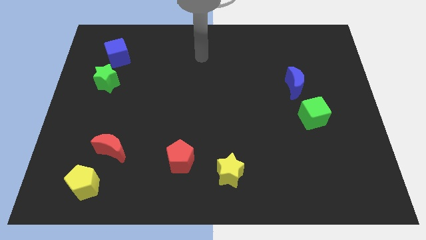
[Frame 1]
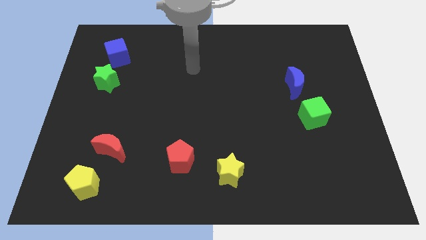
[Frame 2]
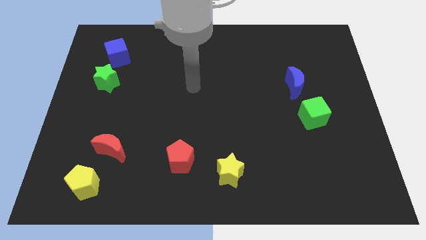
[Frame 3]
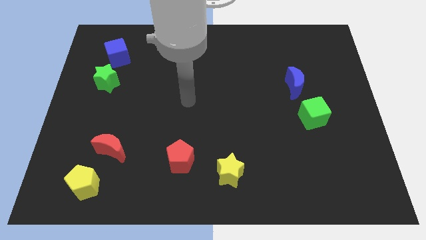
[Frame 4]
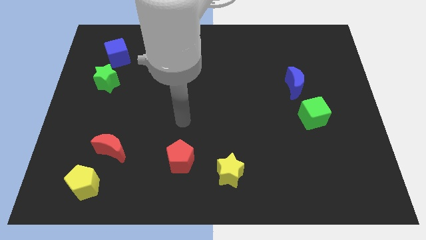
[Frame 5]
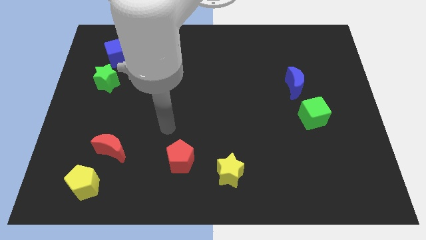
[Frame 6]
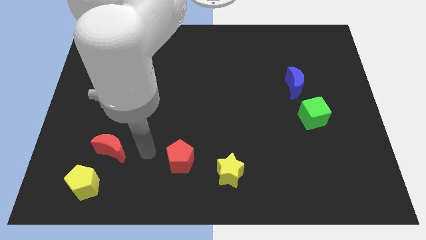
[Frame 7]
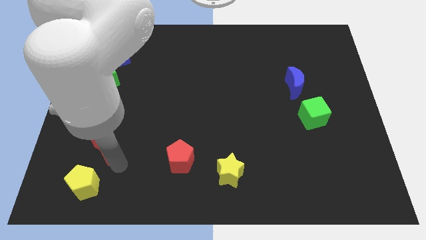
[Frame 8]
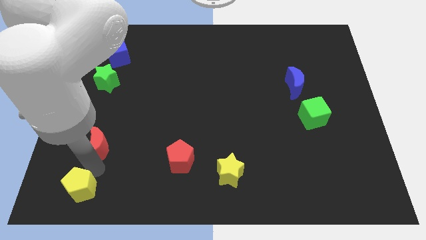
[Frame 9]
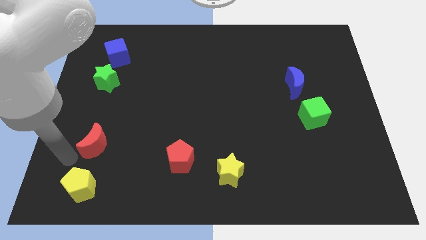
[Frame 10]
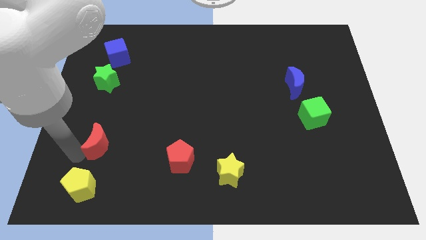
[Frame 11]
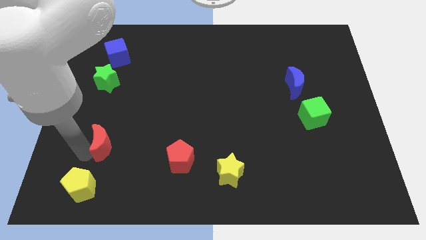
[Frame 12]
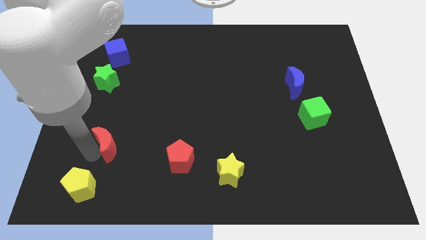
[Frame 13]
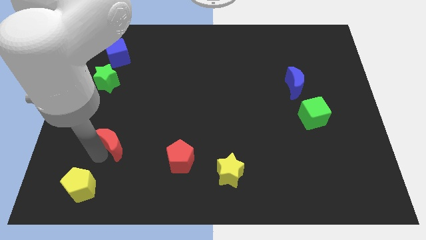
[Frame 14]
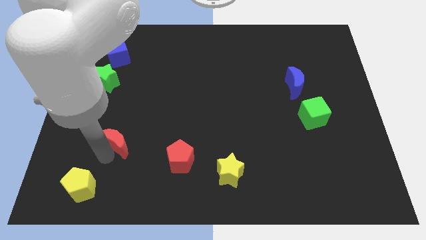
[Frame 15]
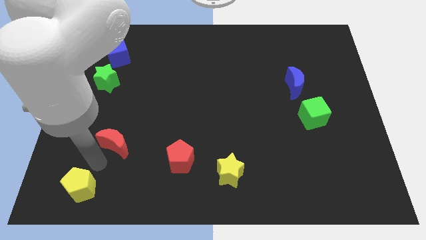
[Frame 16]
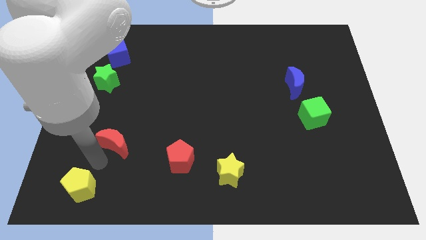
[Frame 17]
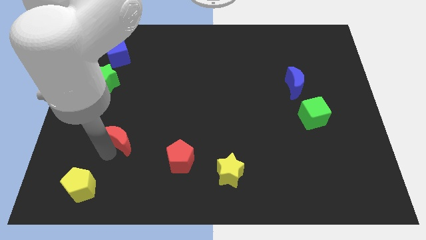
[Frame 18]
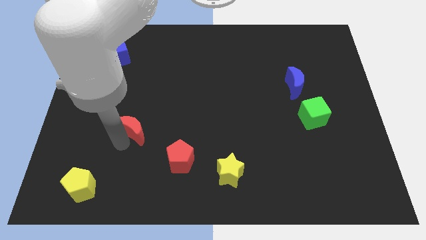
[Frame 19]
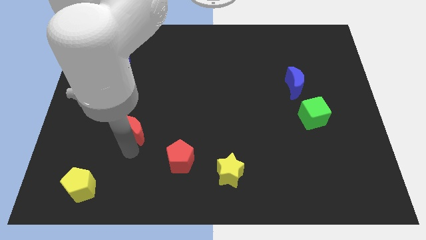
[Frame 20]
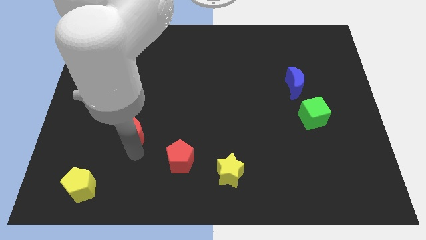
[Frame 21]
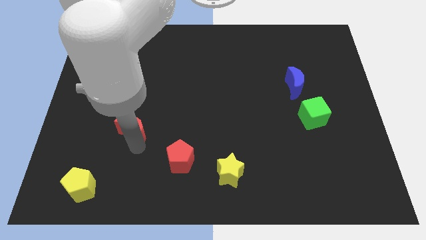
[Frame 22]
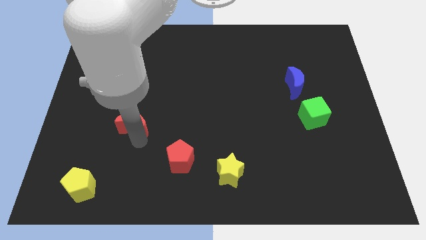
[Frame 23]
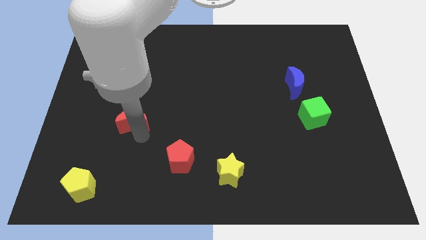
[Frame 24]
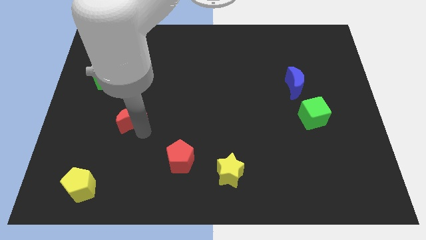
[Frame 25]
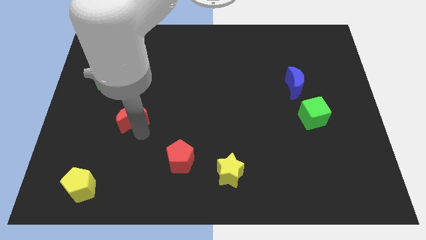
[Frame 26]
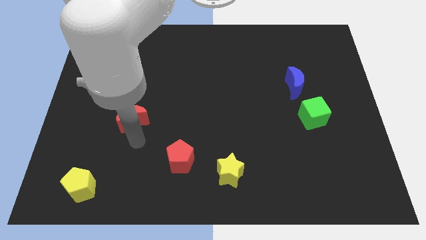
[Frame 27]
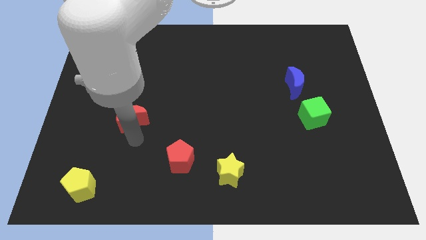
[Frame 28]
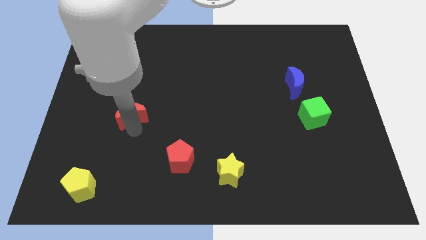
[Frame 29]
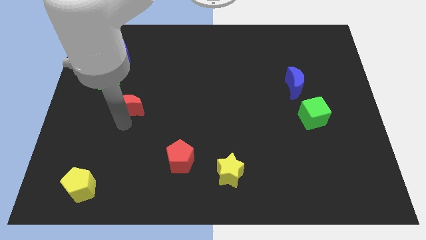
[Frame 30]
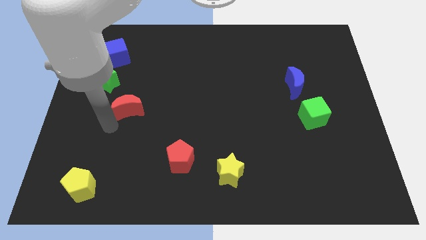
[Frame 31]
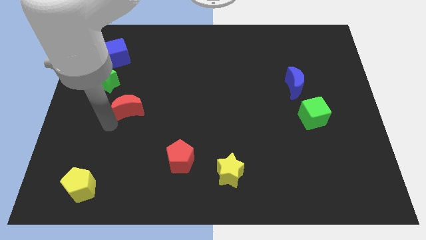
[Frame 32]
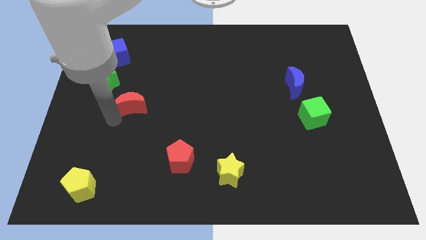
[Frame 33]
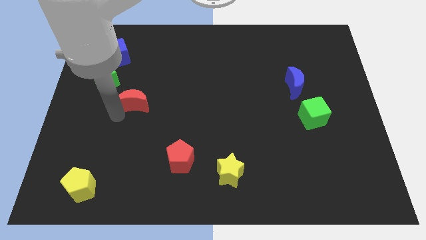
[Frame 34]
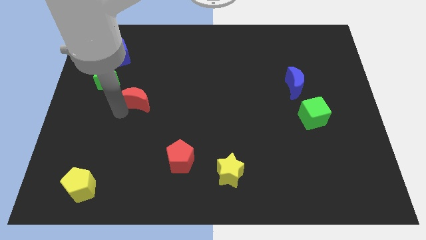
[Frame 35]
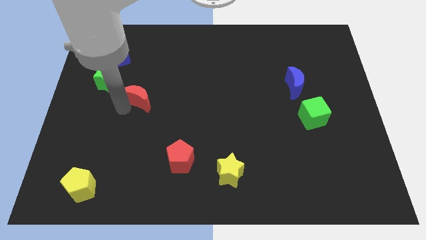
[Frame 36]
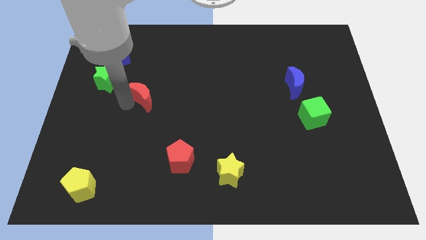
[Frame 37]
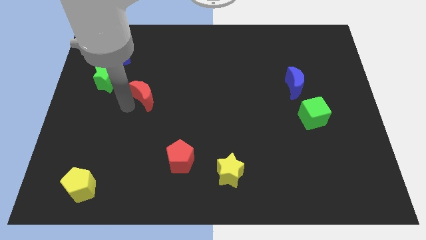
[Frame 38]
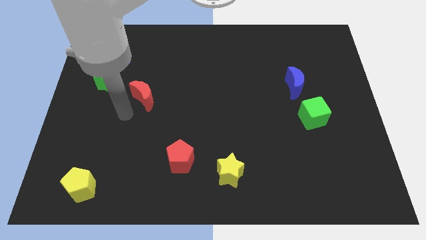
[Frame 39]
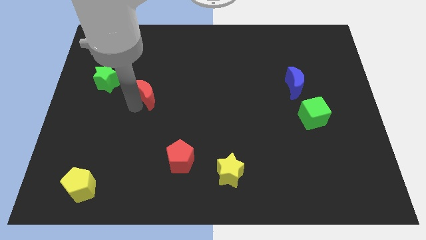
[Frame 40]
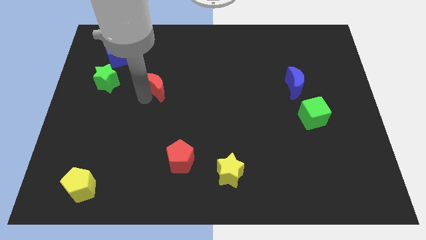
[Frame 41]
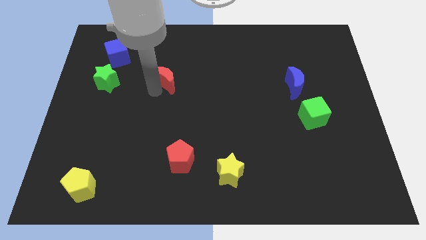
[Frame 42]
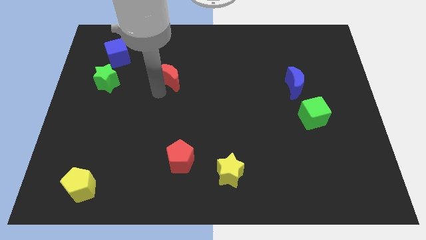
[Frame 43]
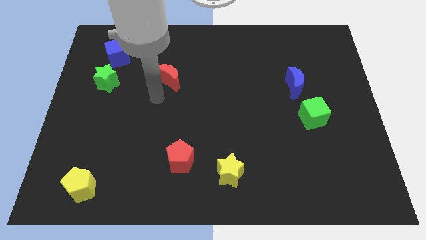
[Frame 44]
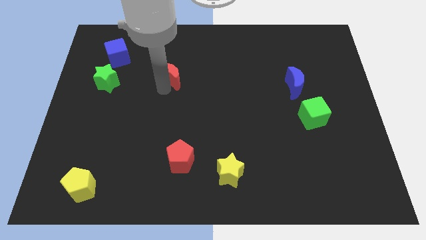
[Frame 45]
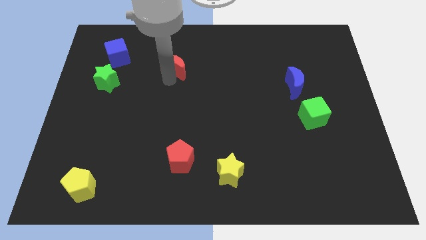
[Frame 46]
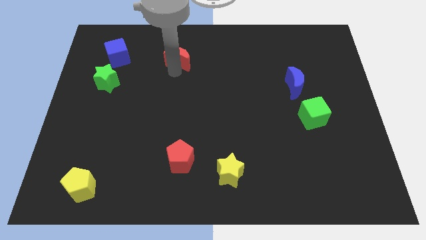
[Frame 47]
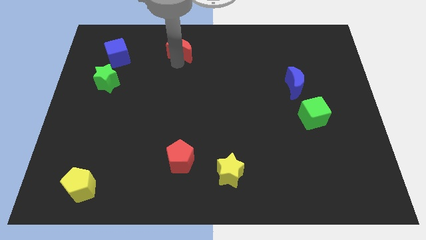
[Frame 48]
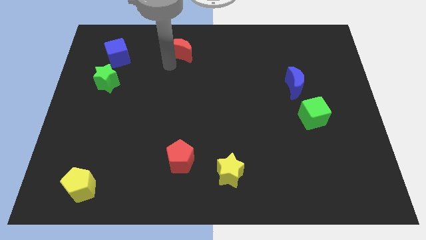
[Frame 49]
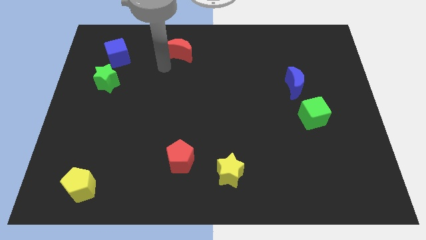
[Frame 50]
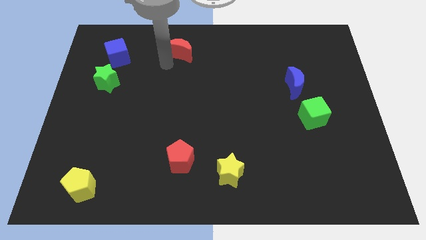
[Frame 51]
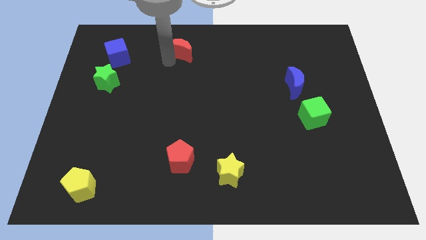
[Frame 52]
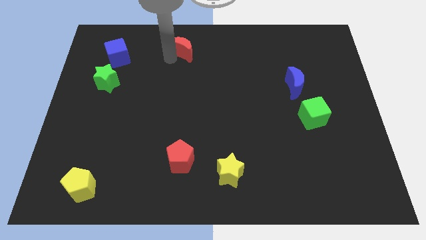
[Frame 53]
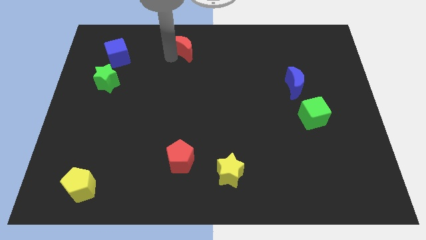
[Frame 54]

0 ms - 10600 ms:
slide the red moon to the top
